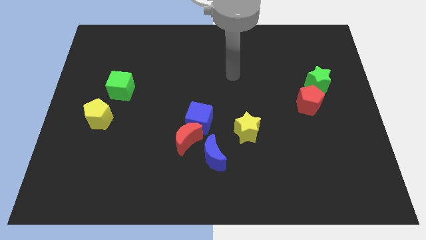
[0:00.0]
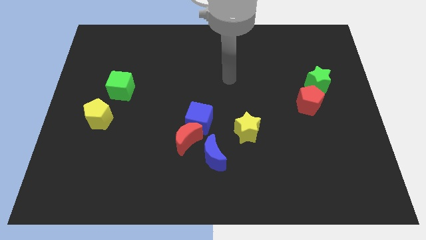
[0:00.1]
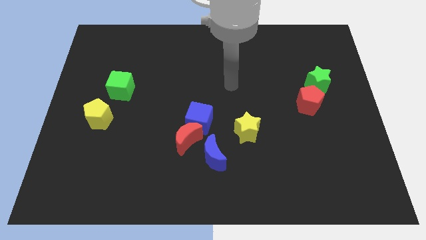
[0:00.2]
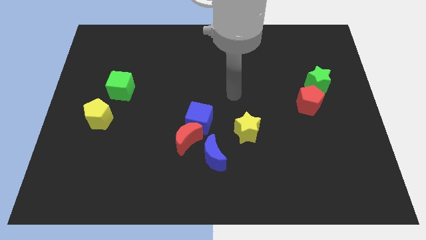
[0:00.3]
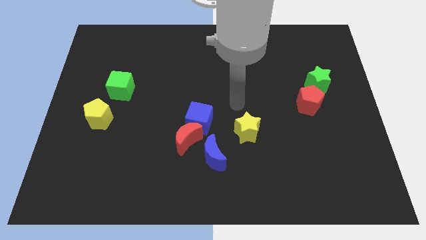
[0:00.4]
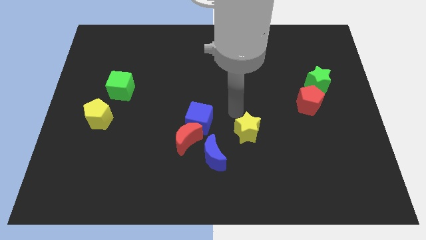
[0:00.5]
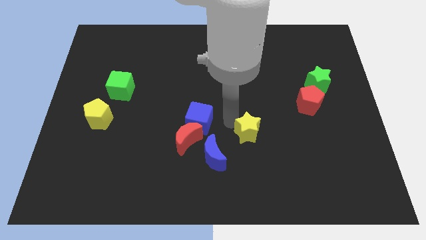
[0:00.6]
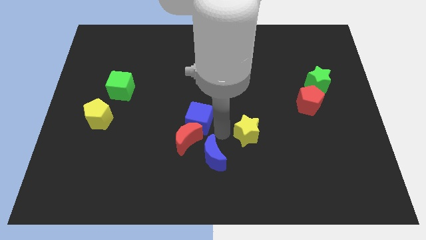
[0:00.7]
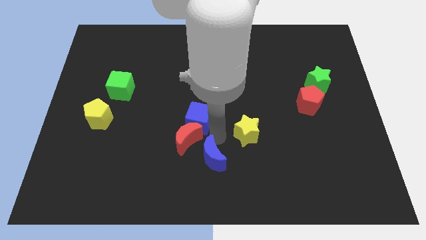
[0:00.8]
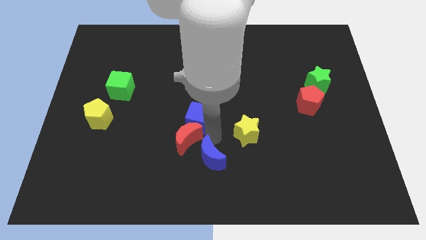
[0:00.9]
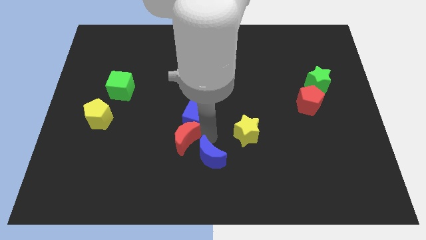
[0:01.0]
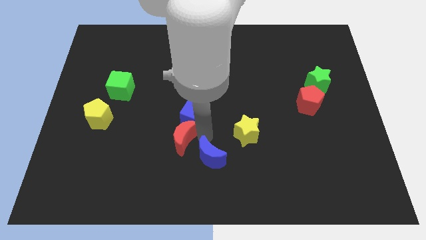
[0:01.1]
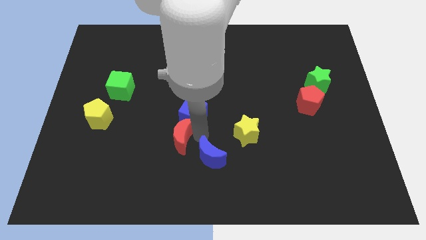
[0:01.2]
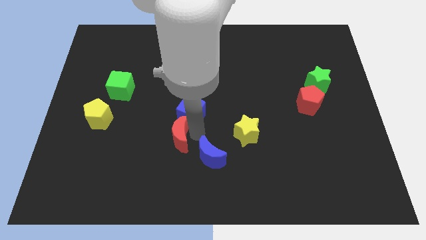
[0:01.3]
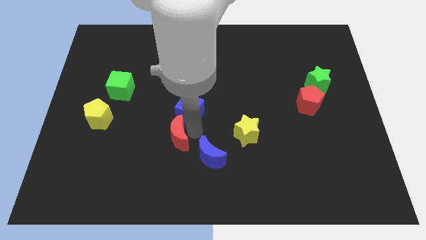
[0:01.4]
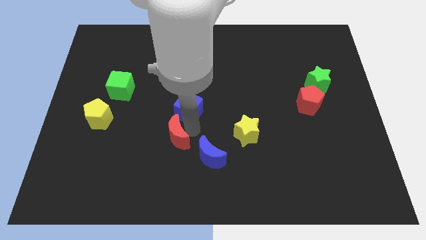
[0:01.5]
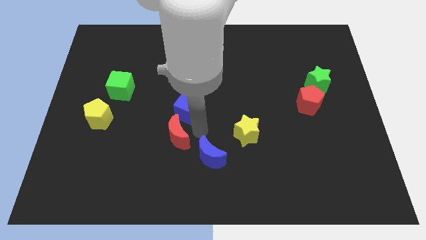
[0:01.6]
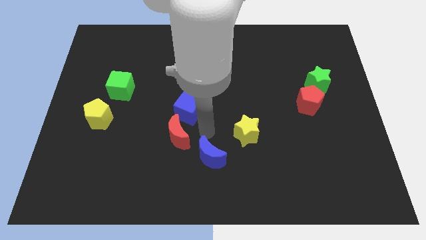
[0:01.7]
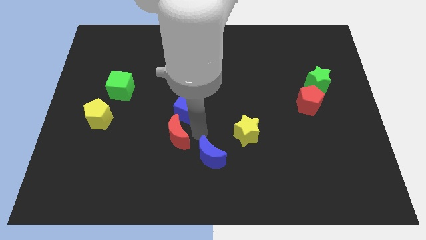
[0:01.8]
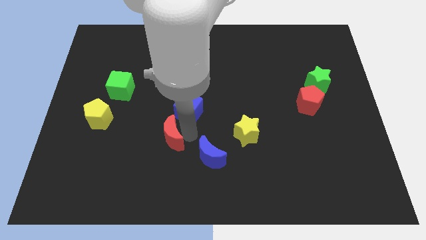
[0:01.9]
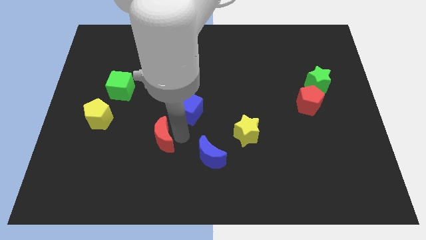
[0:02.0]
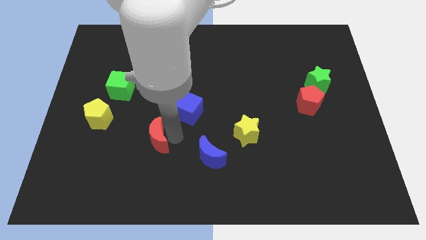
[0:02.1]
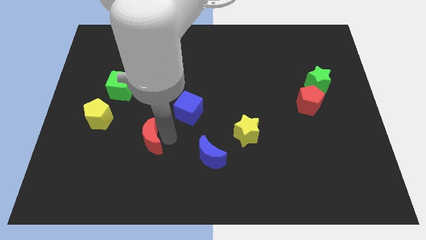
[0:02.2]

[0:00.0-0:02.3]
move the red moon away from the blue cube and blue moon

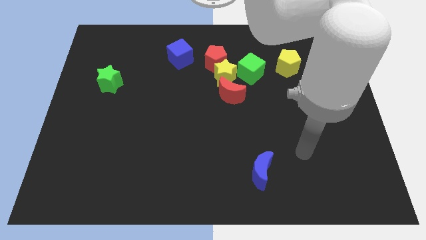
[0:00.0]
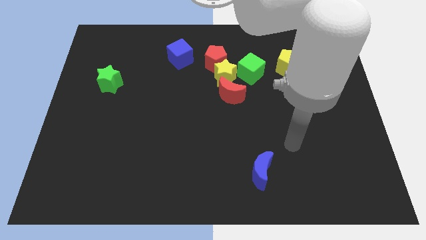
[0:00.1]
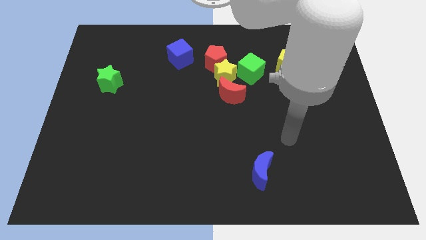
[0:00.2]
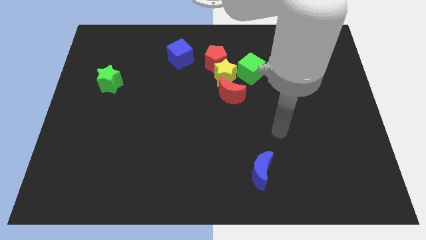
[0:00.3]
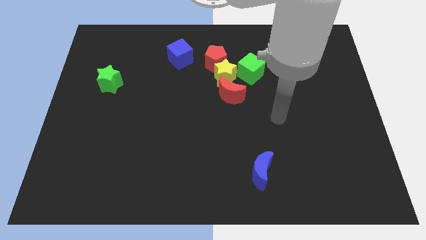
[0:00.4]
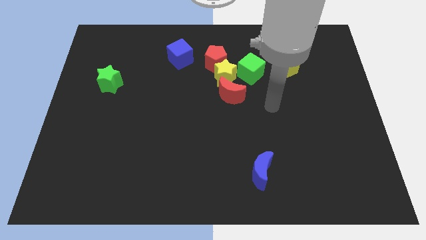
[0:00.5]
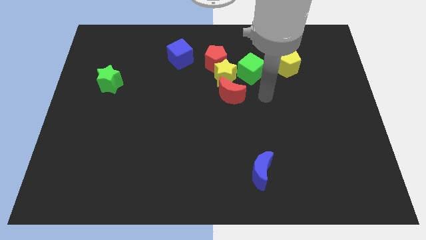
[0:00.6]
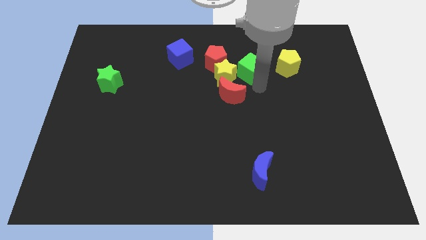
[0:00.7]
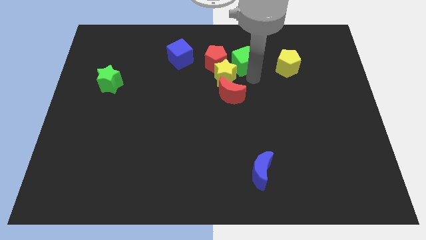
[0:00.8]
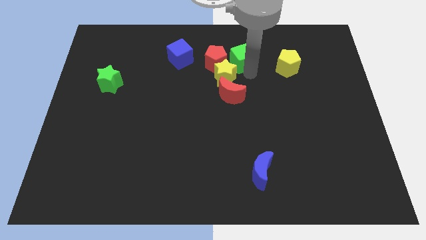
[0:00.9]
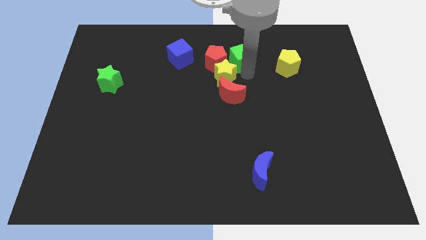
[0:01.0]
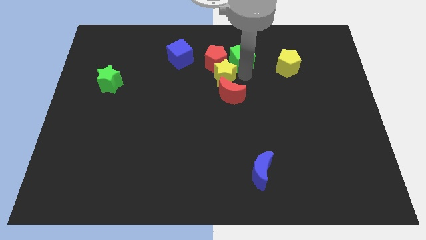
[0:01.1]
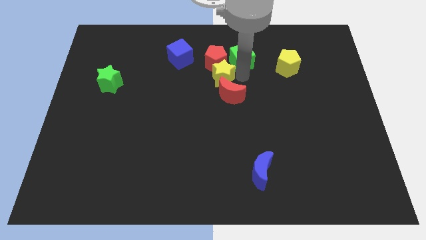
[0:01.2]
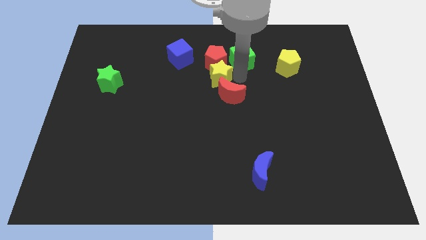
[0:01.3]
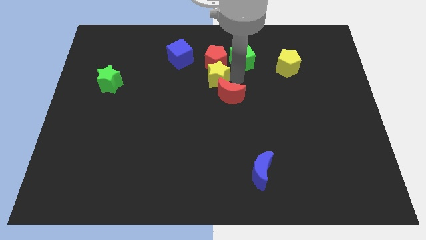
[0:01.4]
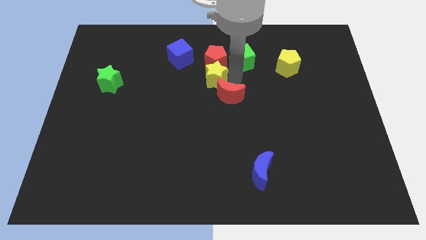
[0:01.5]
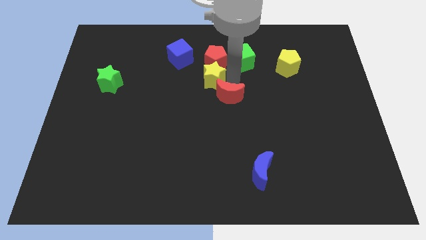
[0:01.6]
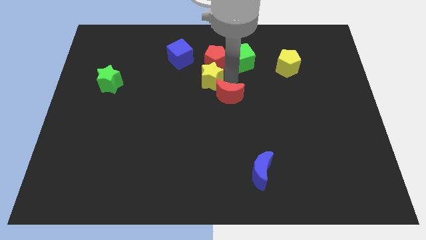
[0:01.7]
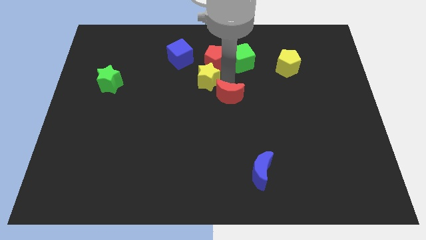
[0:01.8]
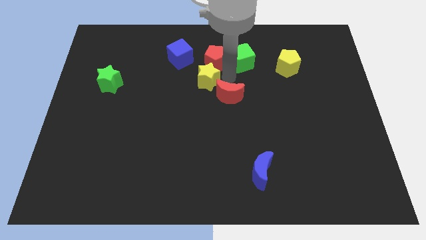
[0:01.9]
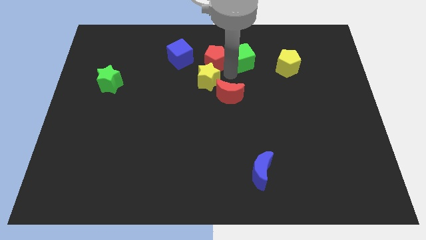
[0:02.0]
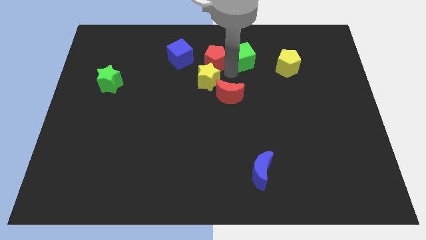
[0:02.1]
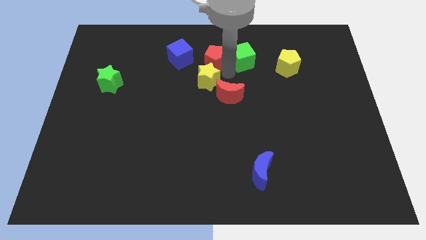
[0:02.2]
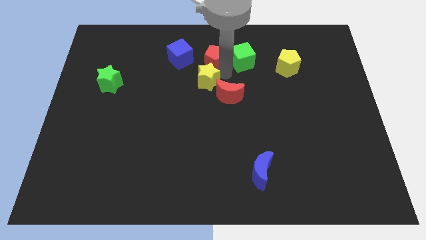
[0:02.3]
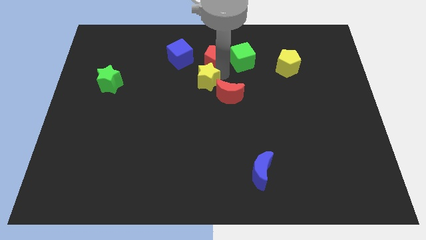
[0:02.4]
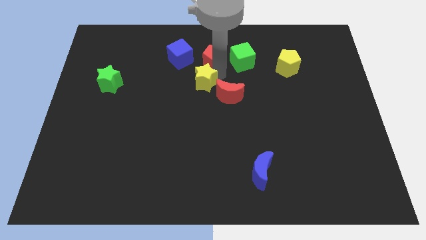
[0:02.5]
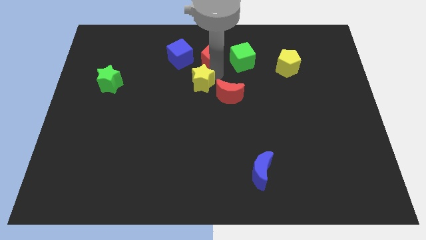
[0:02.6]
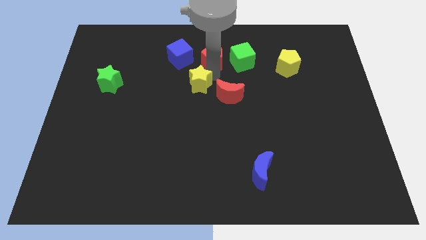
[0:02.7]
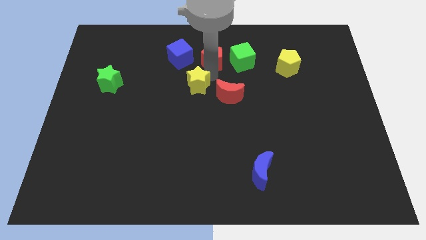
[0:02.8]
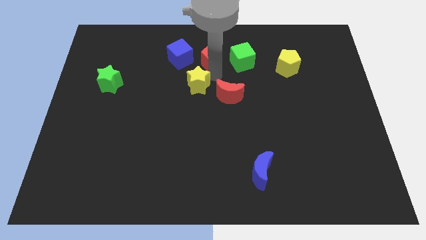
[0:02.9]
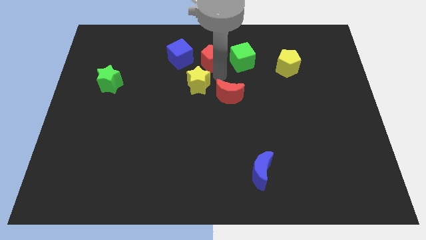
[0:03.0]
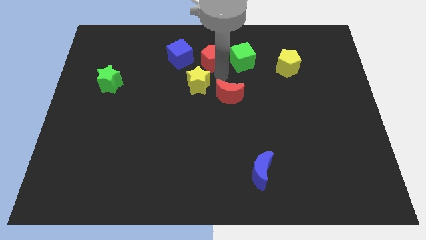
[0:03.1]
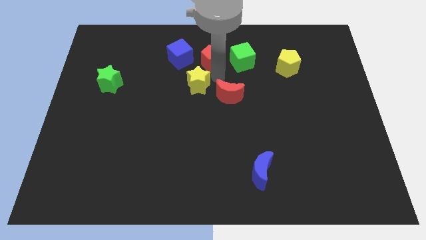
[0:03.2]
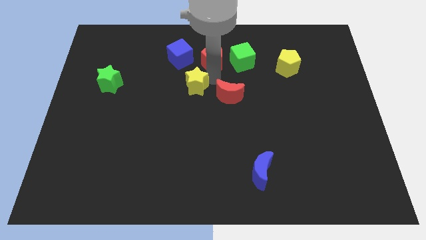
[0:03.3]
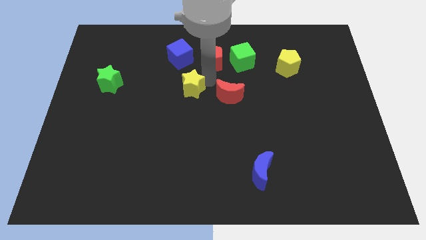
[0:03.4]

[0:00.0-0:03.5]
pull the yellow star apart from the group of blocks

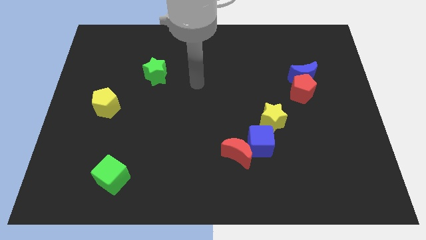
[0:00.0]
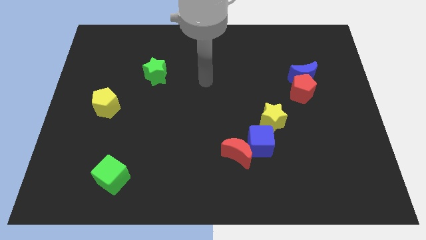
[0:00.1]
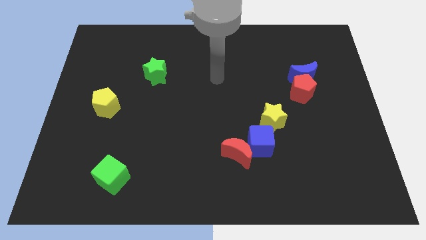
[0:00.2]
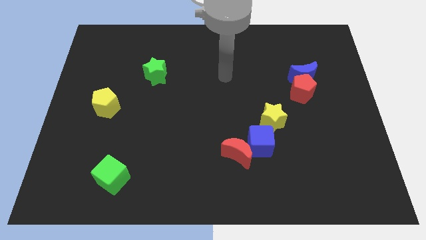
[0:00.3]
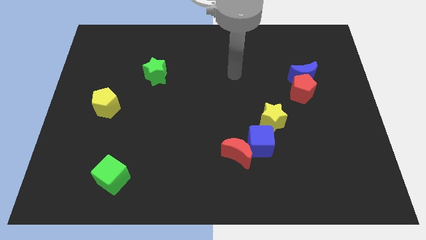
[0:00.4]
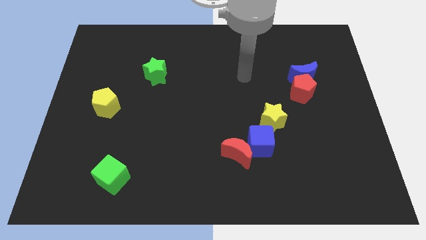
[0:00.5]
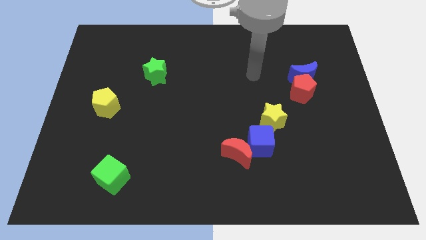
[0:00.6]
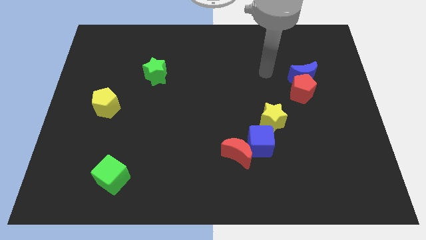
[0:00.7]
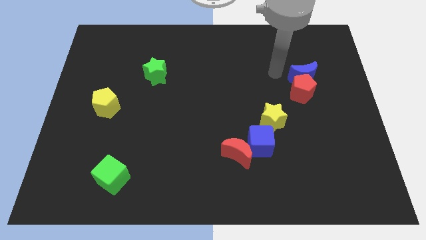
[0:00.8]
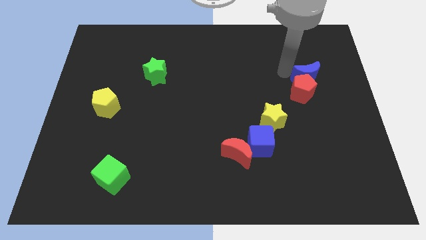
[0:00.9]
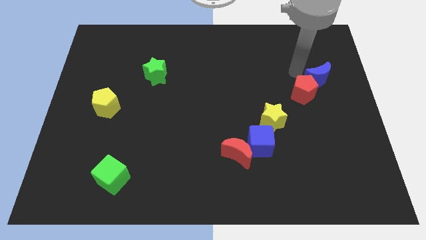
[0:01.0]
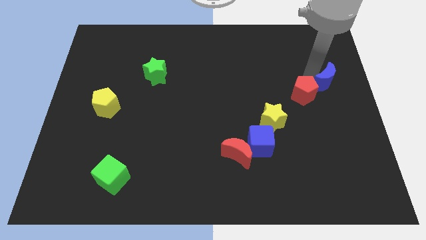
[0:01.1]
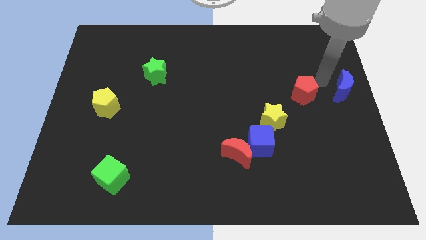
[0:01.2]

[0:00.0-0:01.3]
pull the red pentagon apart from the blue moon

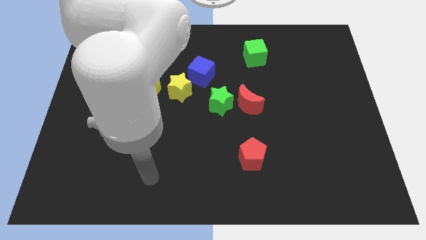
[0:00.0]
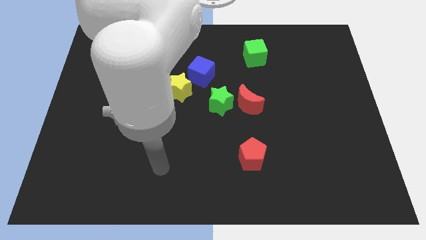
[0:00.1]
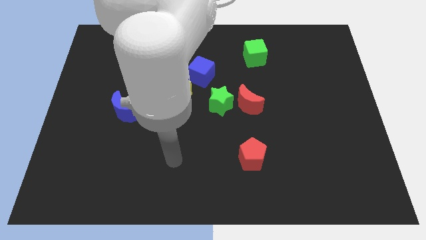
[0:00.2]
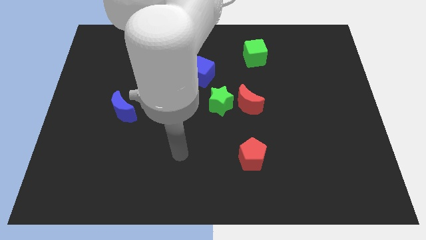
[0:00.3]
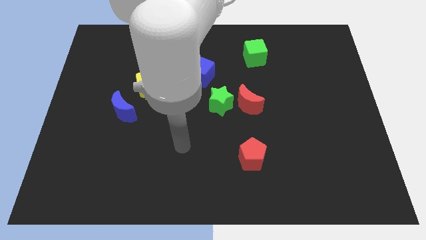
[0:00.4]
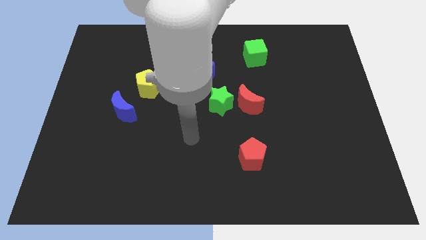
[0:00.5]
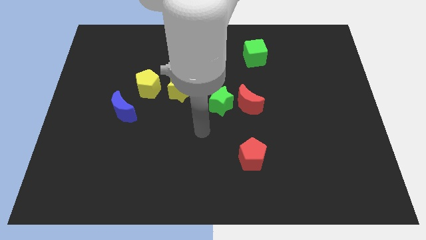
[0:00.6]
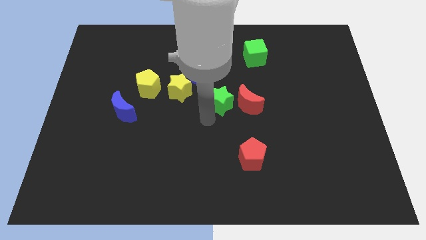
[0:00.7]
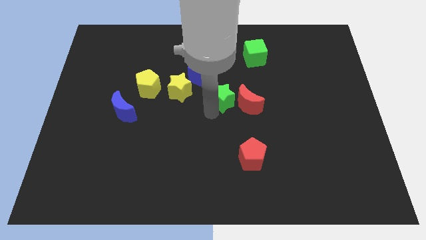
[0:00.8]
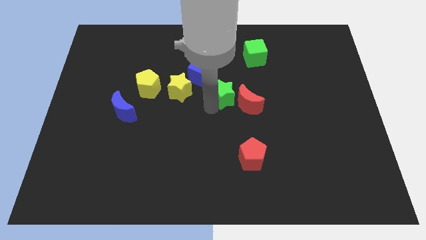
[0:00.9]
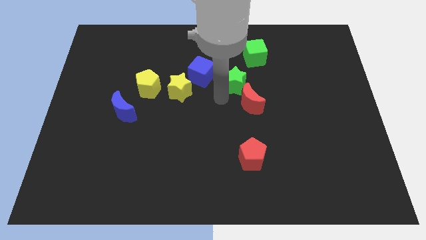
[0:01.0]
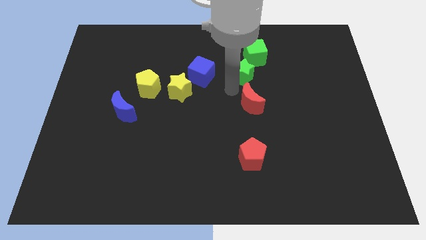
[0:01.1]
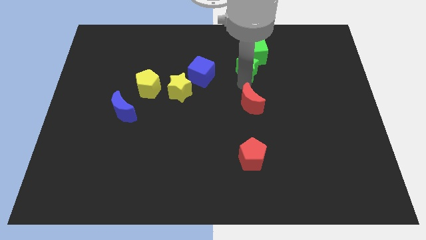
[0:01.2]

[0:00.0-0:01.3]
pull the red moon apart from the green star

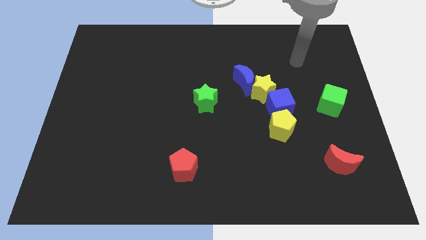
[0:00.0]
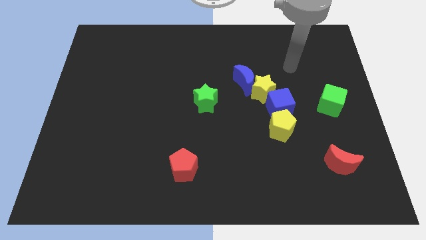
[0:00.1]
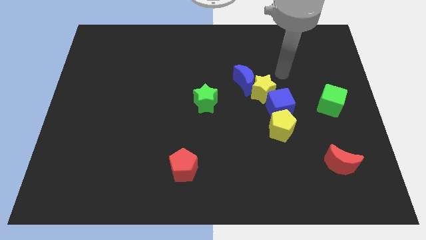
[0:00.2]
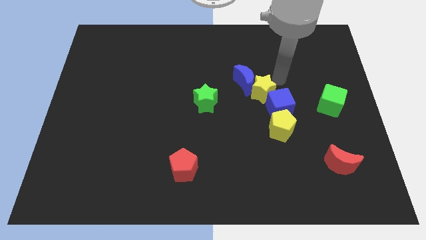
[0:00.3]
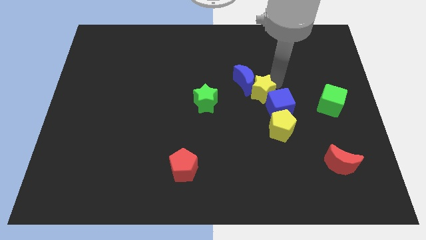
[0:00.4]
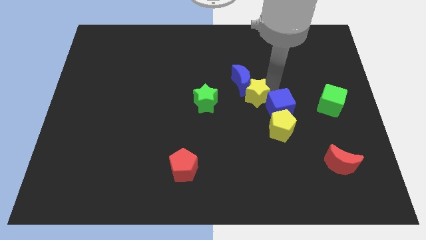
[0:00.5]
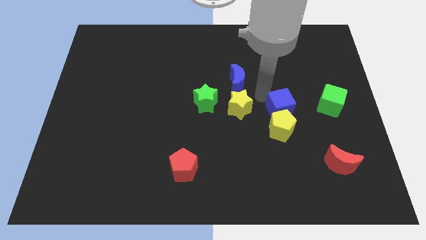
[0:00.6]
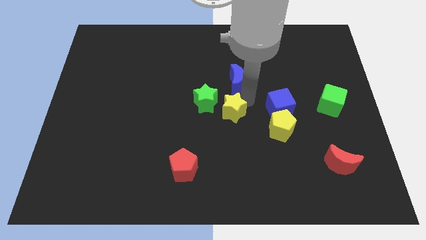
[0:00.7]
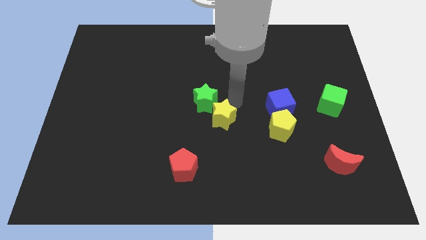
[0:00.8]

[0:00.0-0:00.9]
separate the blue moon from the yellow star
